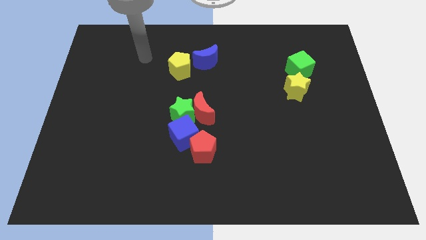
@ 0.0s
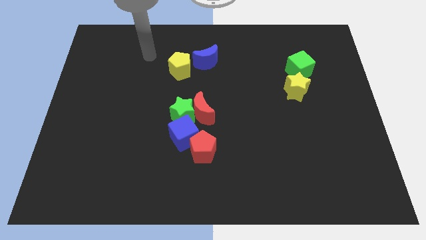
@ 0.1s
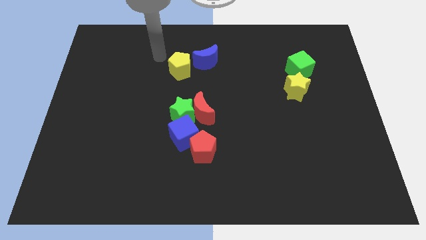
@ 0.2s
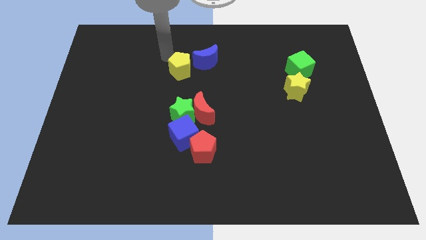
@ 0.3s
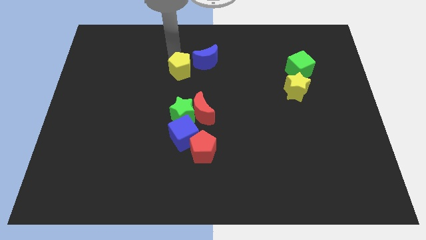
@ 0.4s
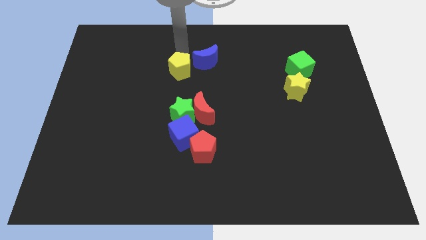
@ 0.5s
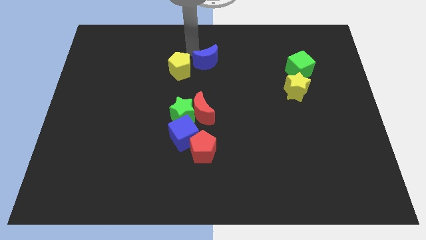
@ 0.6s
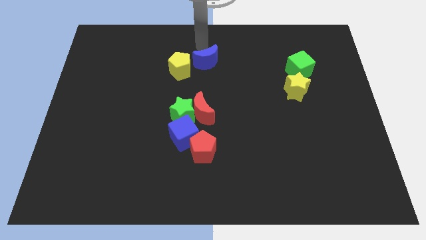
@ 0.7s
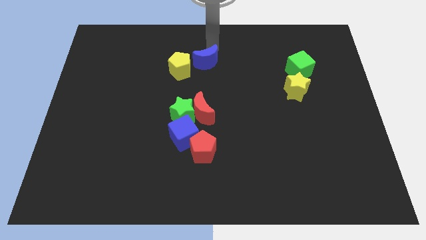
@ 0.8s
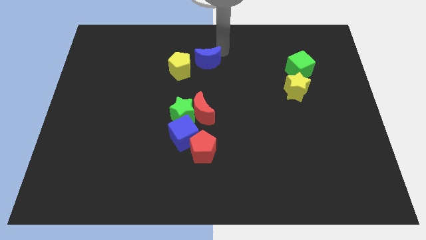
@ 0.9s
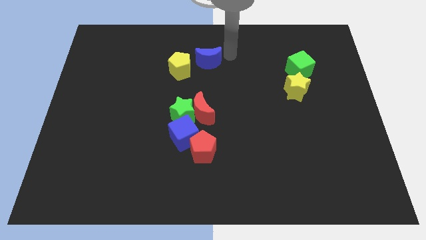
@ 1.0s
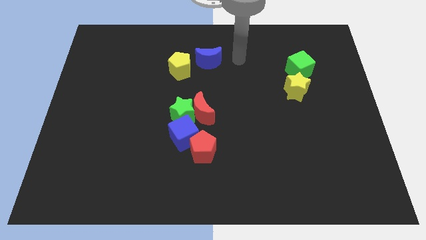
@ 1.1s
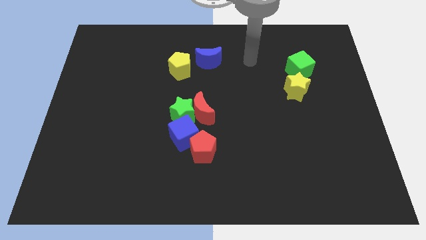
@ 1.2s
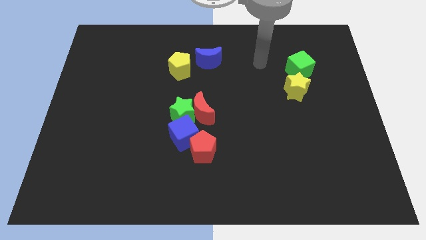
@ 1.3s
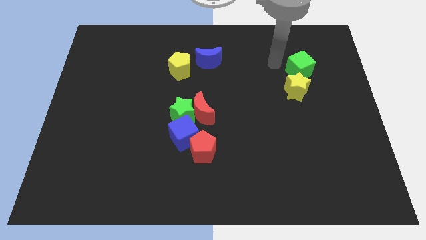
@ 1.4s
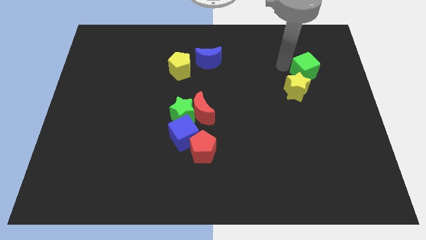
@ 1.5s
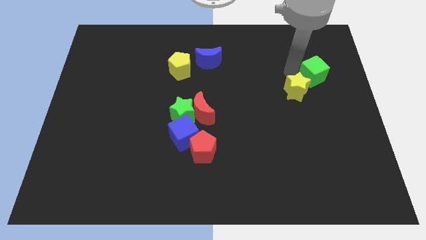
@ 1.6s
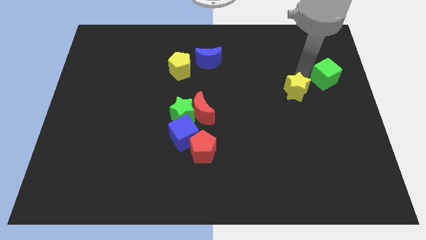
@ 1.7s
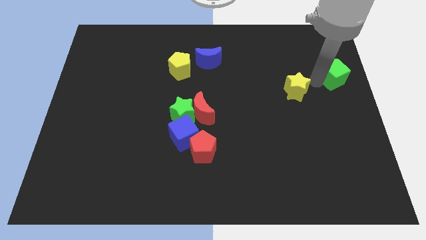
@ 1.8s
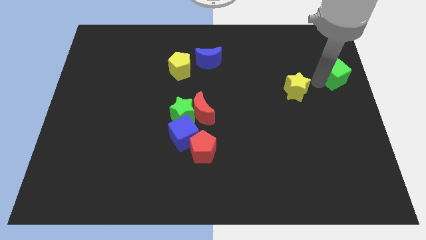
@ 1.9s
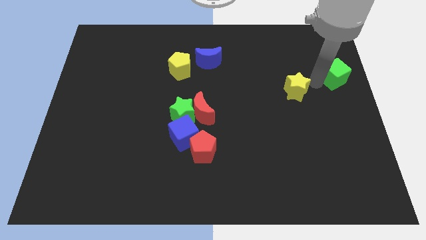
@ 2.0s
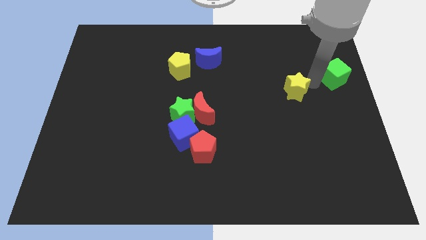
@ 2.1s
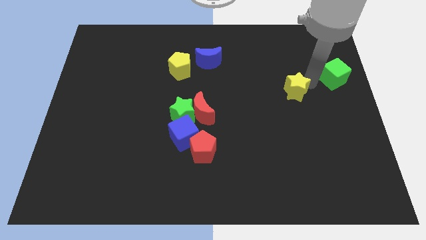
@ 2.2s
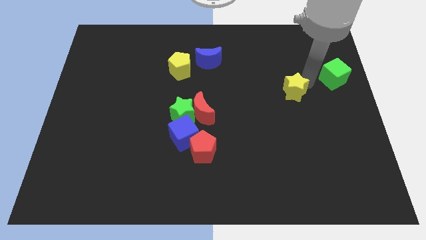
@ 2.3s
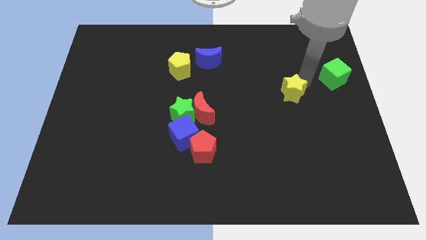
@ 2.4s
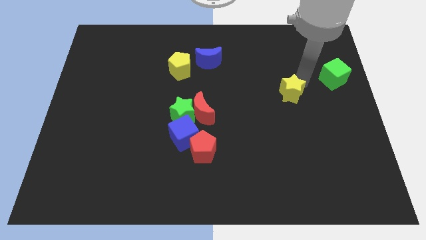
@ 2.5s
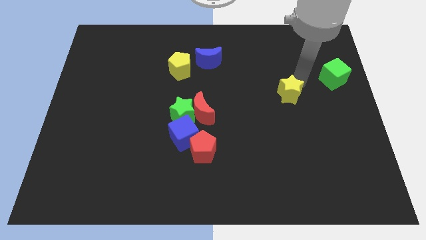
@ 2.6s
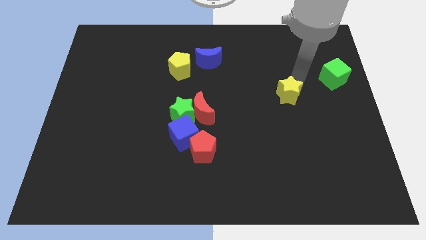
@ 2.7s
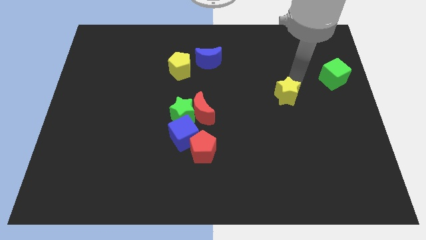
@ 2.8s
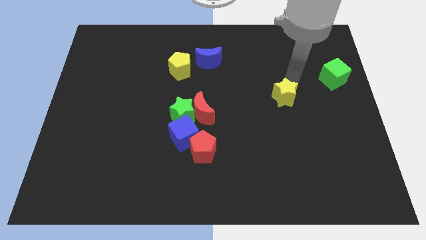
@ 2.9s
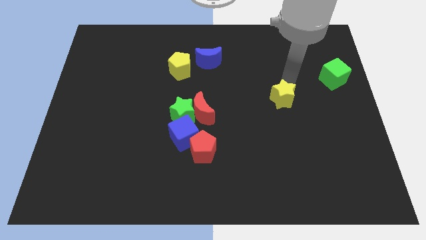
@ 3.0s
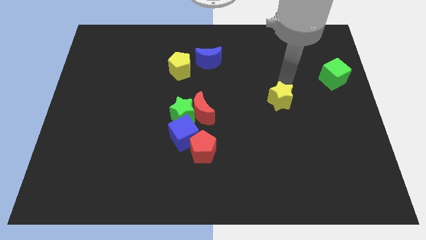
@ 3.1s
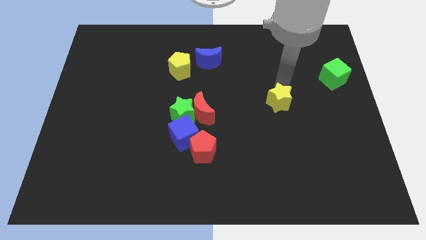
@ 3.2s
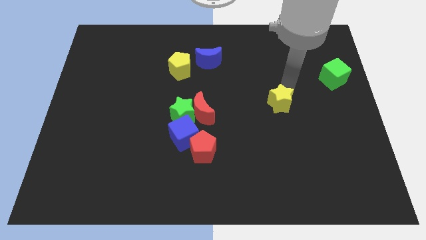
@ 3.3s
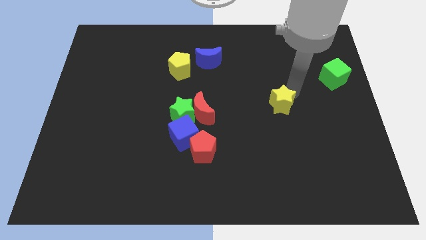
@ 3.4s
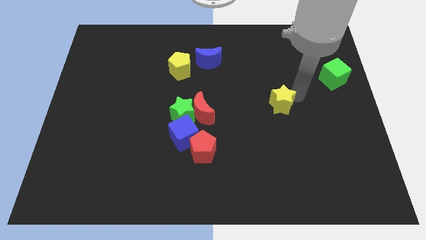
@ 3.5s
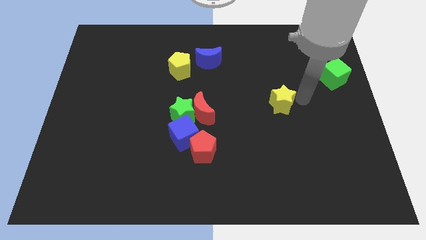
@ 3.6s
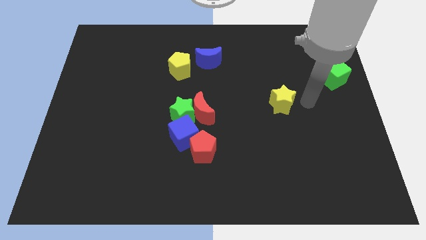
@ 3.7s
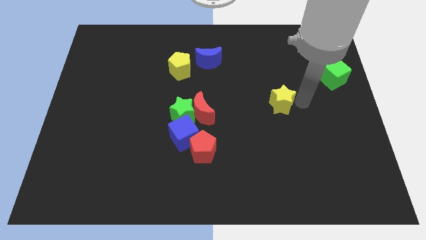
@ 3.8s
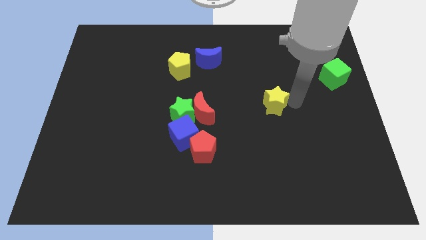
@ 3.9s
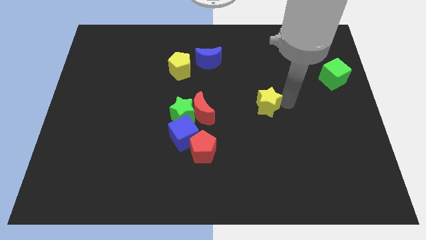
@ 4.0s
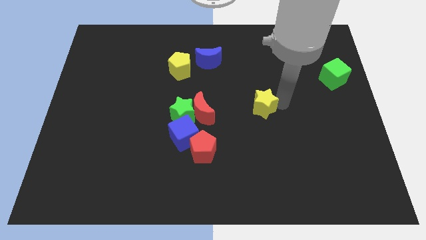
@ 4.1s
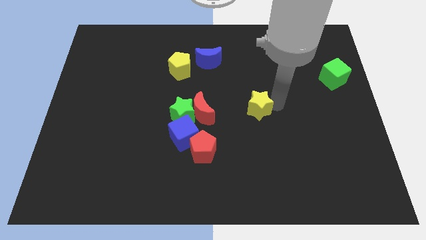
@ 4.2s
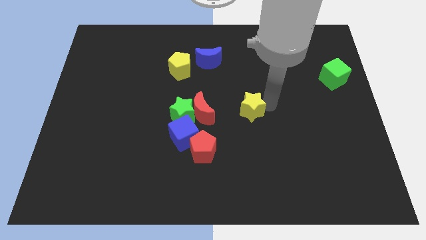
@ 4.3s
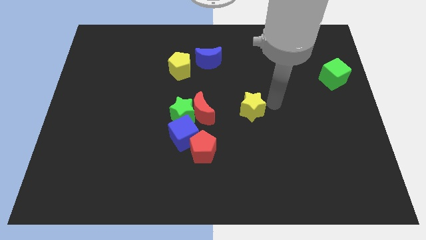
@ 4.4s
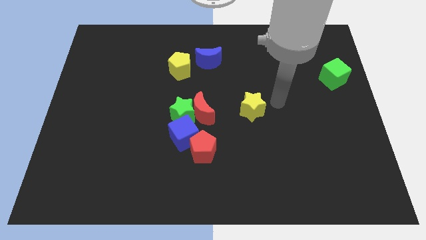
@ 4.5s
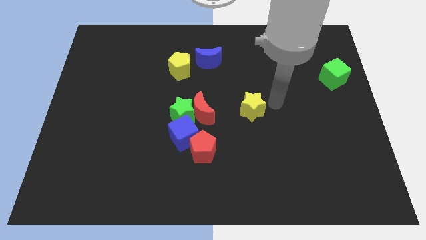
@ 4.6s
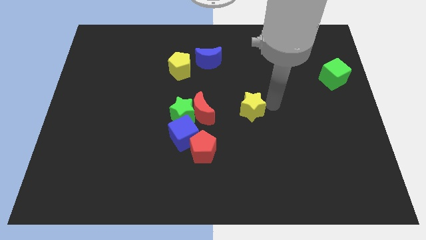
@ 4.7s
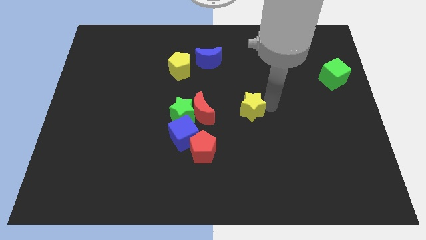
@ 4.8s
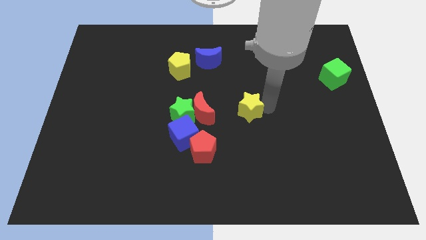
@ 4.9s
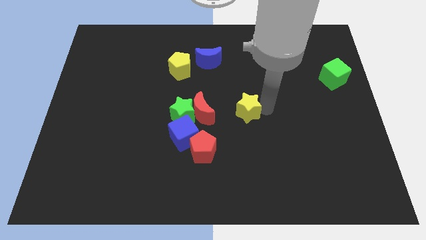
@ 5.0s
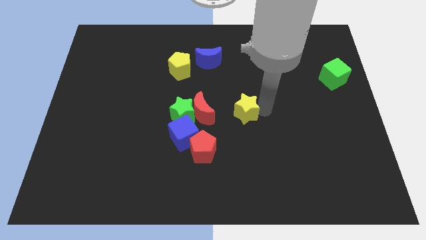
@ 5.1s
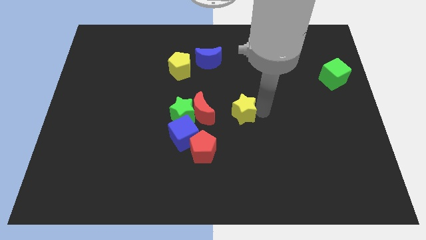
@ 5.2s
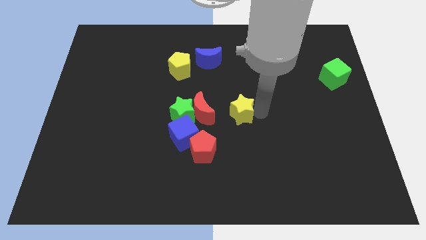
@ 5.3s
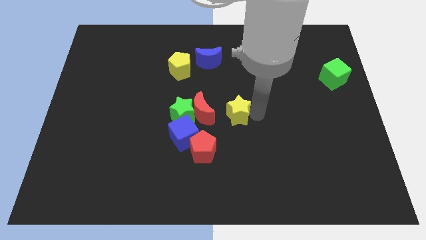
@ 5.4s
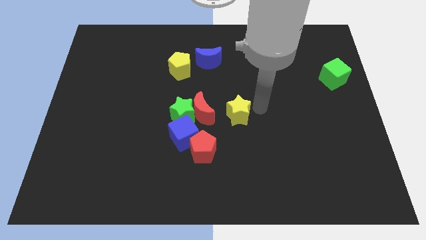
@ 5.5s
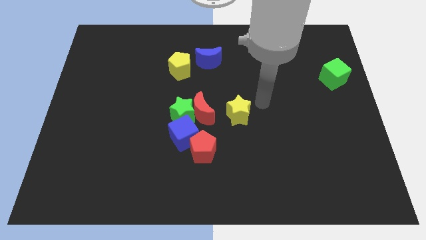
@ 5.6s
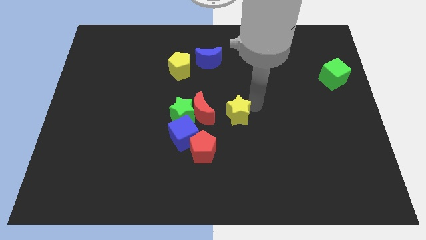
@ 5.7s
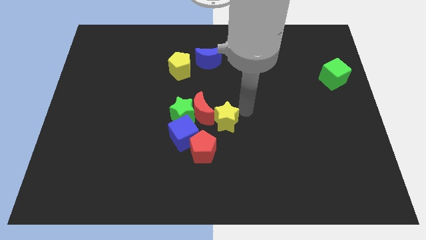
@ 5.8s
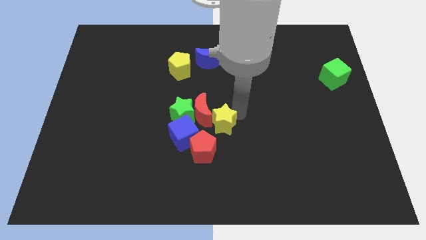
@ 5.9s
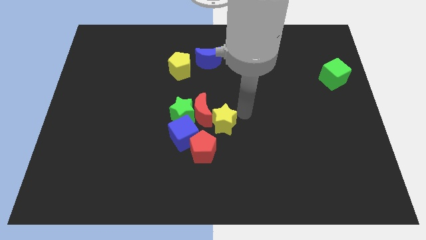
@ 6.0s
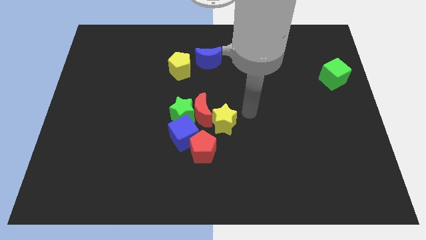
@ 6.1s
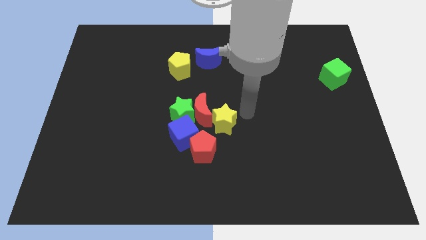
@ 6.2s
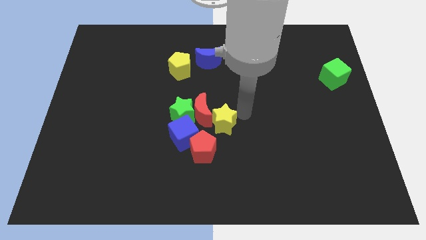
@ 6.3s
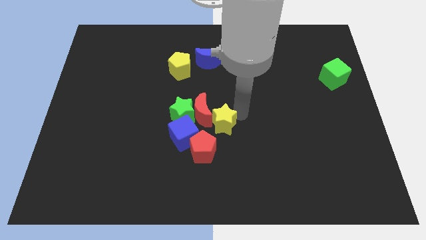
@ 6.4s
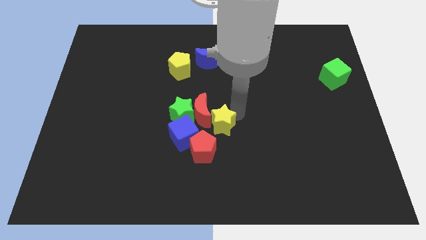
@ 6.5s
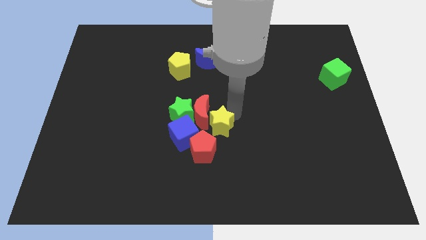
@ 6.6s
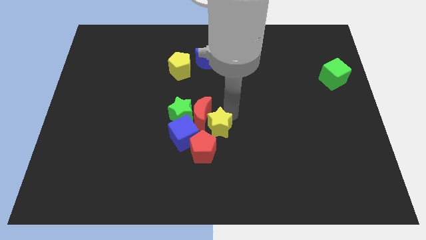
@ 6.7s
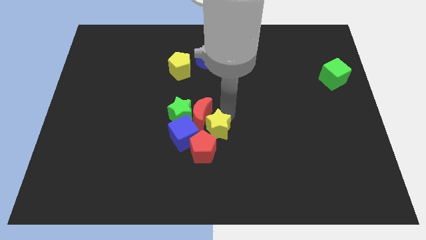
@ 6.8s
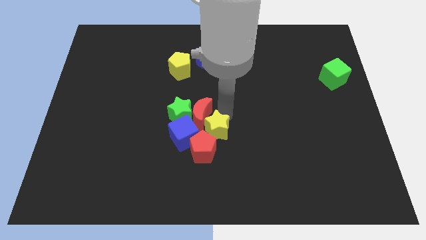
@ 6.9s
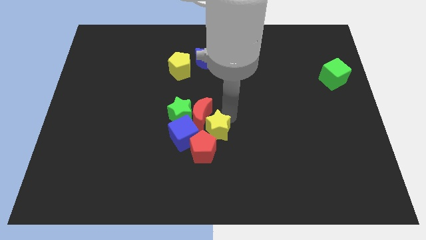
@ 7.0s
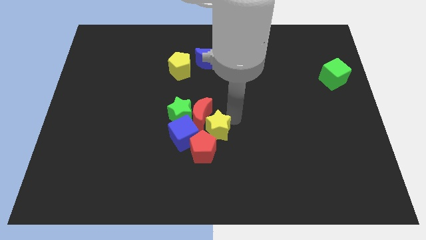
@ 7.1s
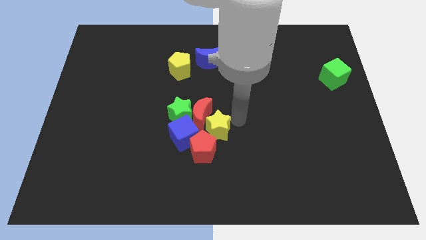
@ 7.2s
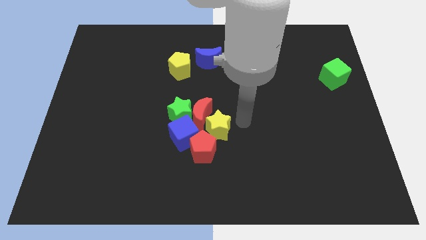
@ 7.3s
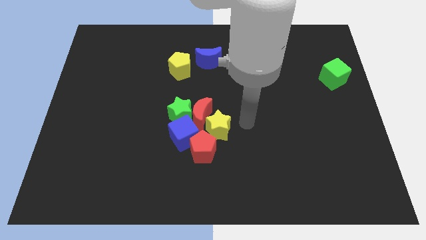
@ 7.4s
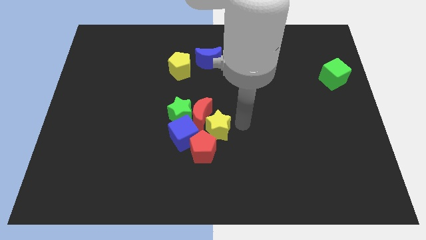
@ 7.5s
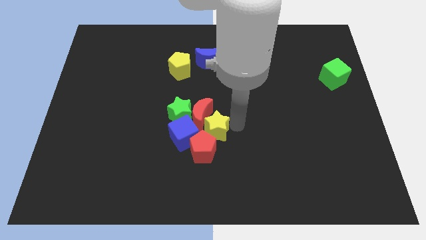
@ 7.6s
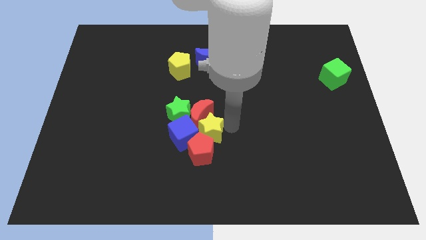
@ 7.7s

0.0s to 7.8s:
slide the yellow star towards the blue cube
